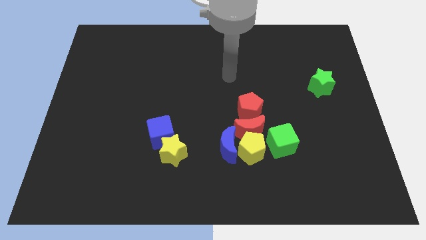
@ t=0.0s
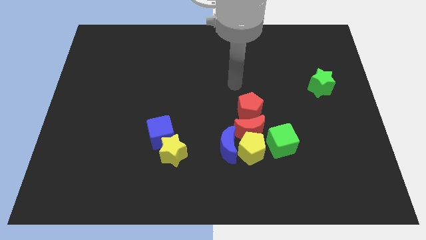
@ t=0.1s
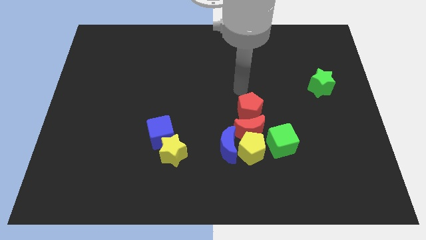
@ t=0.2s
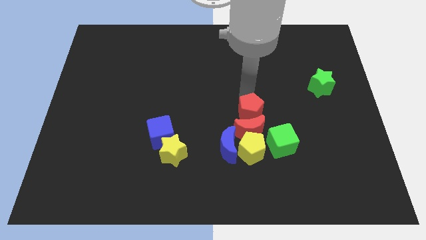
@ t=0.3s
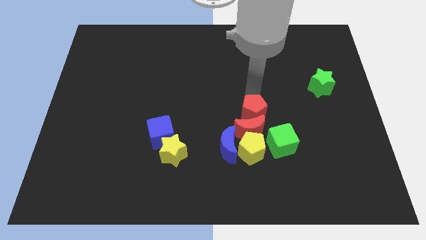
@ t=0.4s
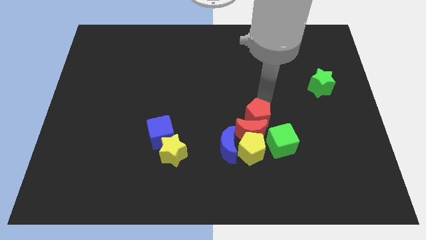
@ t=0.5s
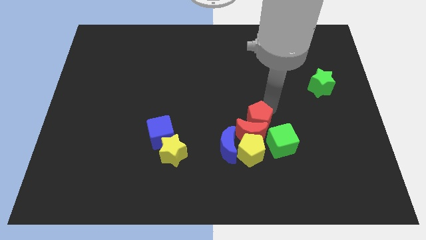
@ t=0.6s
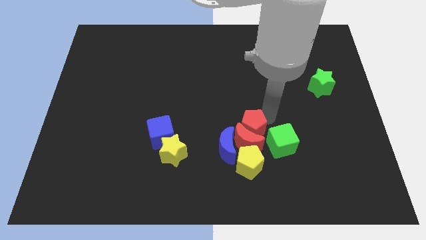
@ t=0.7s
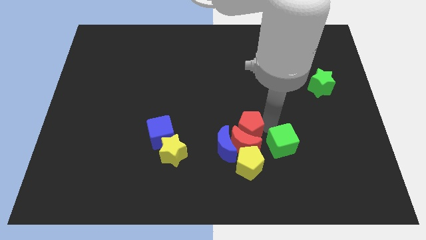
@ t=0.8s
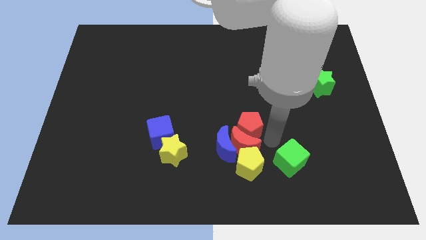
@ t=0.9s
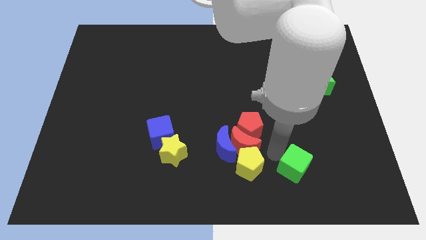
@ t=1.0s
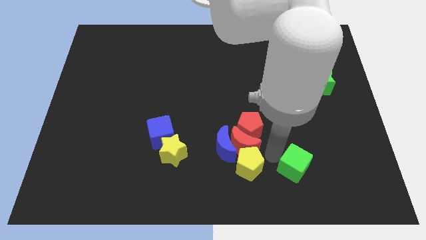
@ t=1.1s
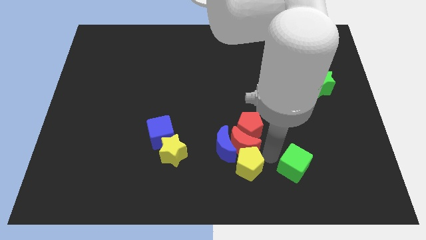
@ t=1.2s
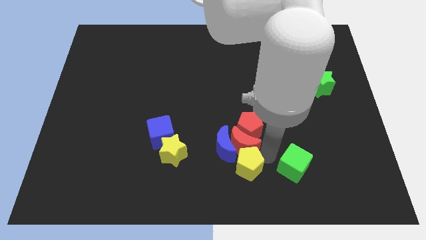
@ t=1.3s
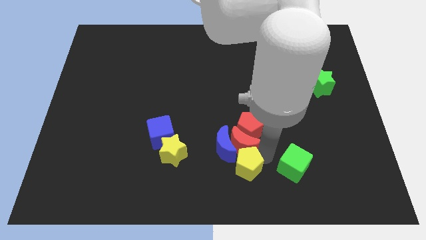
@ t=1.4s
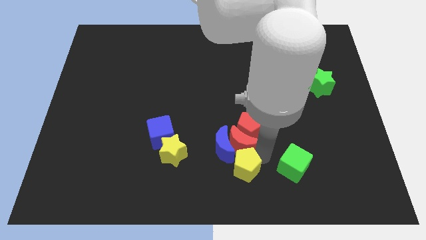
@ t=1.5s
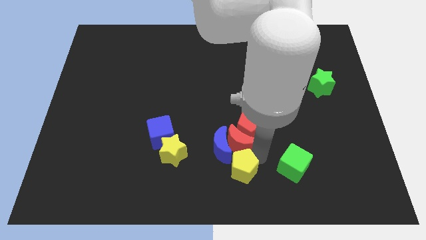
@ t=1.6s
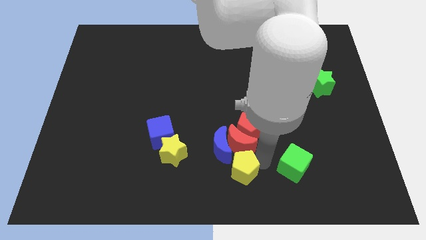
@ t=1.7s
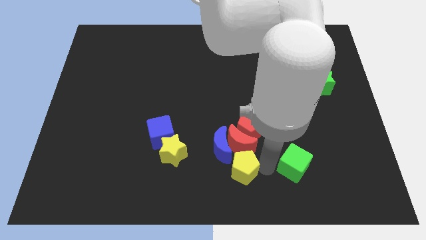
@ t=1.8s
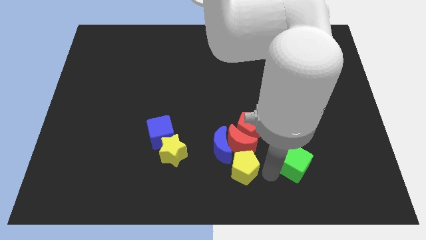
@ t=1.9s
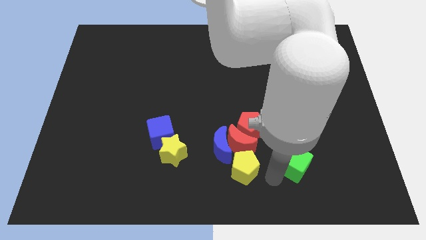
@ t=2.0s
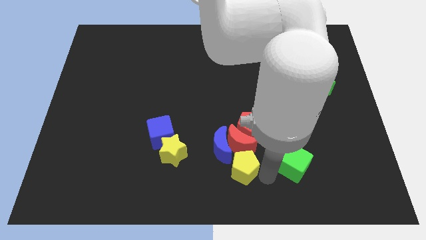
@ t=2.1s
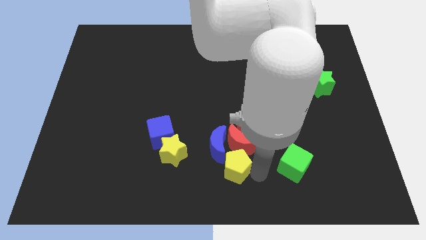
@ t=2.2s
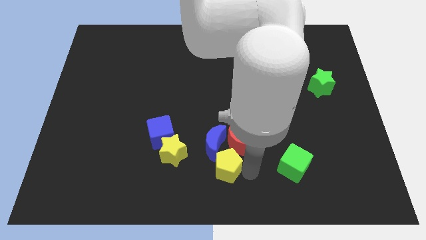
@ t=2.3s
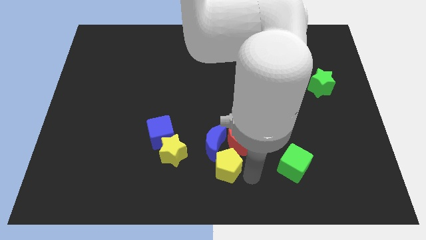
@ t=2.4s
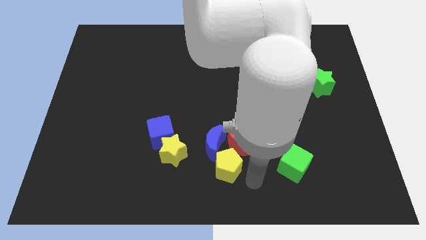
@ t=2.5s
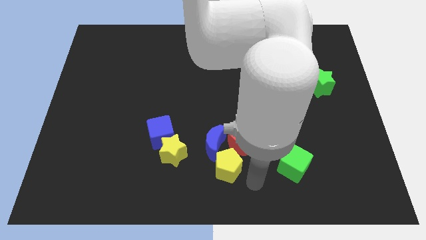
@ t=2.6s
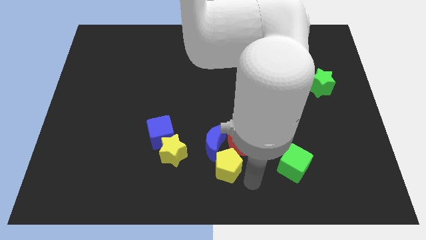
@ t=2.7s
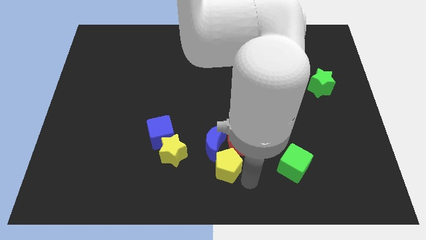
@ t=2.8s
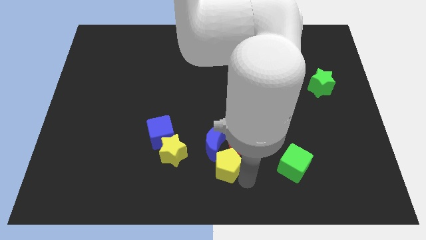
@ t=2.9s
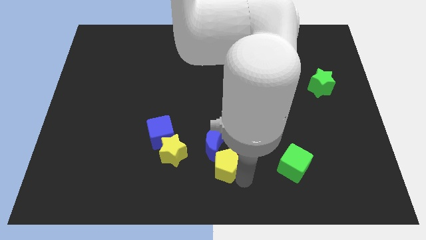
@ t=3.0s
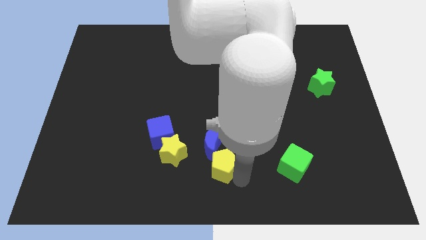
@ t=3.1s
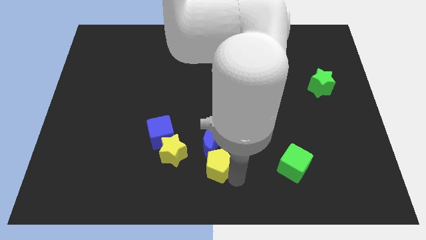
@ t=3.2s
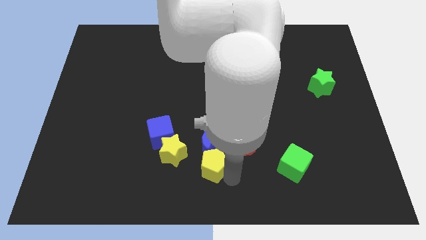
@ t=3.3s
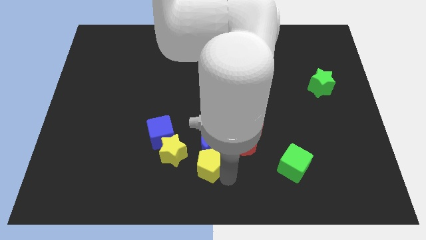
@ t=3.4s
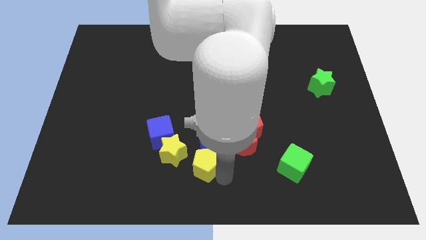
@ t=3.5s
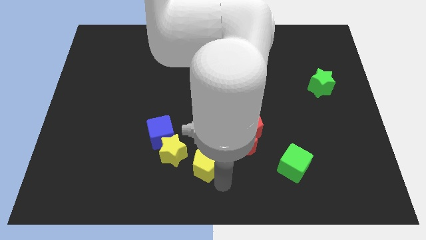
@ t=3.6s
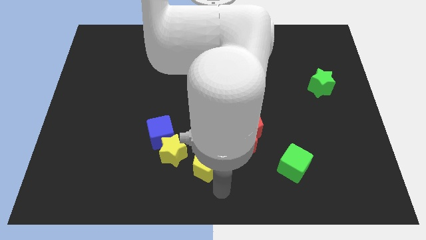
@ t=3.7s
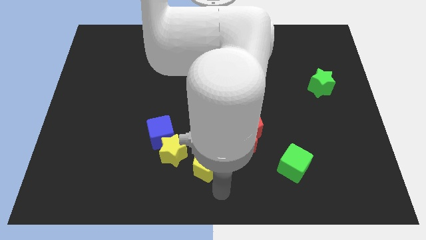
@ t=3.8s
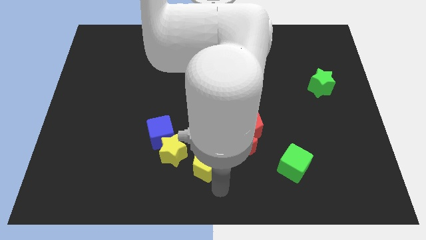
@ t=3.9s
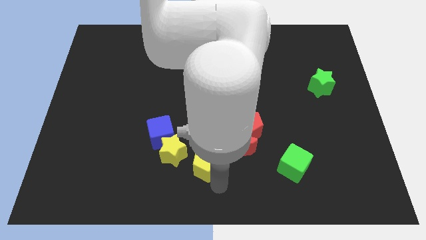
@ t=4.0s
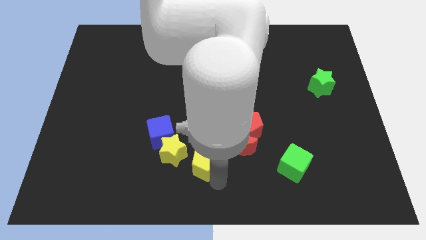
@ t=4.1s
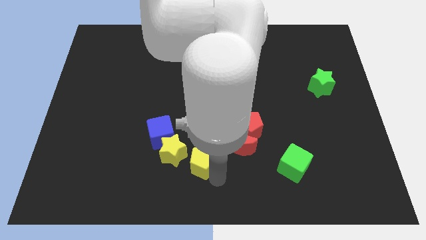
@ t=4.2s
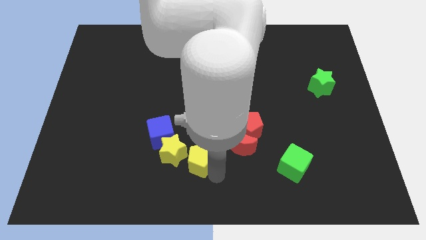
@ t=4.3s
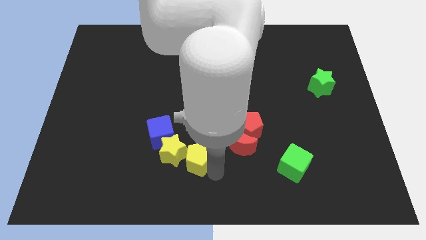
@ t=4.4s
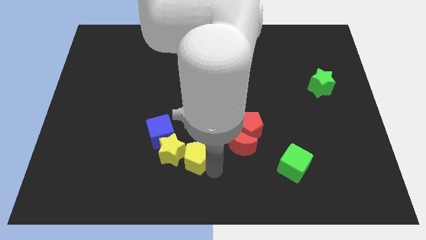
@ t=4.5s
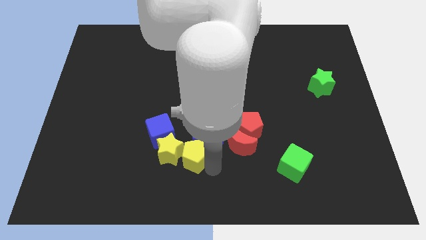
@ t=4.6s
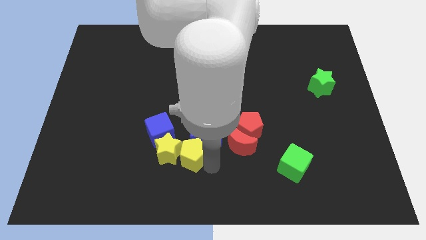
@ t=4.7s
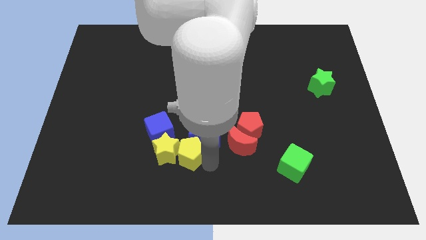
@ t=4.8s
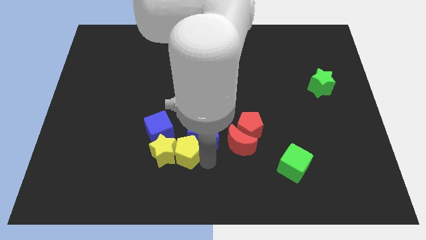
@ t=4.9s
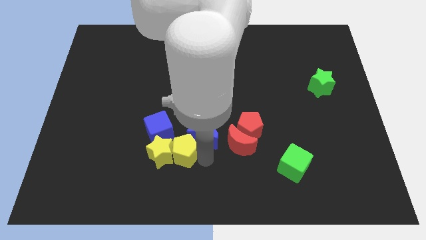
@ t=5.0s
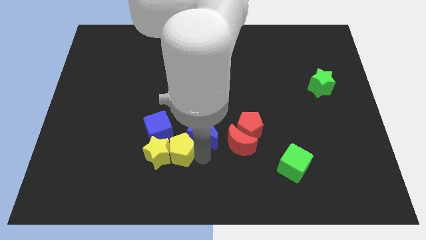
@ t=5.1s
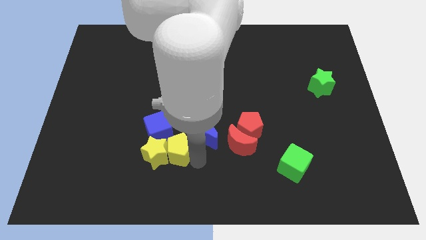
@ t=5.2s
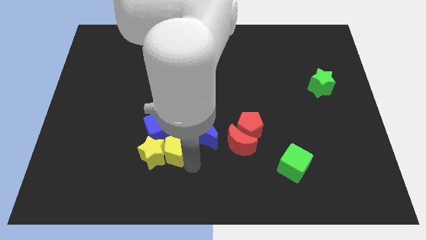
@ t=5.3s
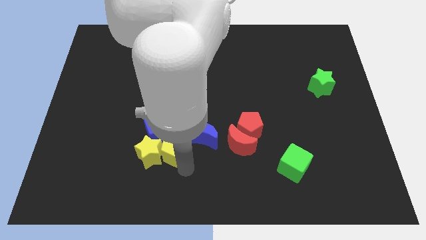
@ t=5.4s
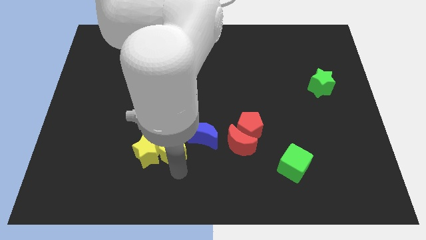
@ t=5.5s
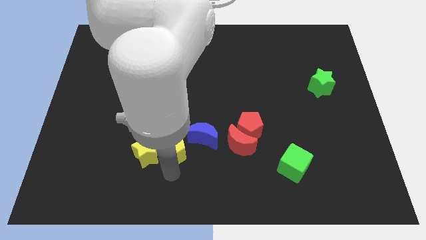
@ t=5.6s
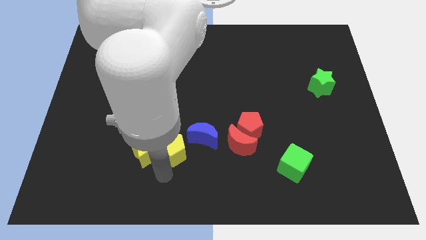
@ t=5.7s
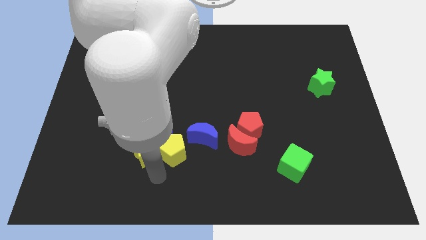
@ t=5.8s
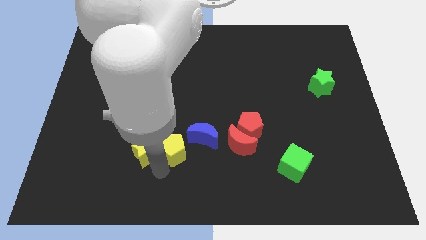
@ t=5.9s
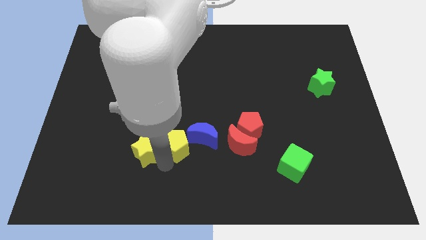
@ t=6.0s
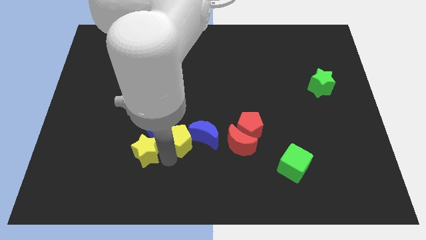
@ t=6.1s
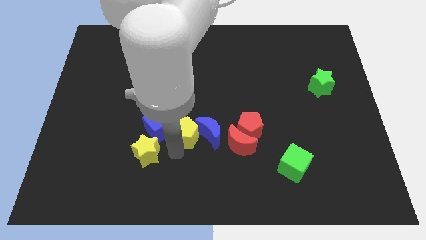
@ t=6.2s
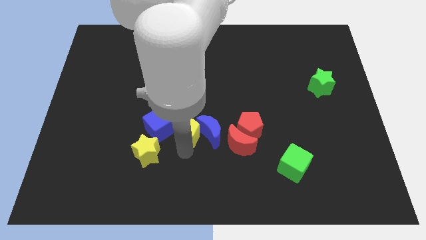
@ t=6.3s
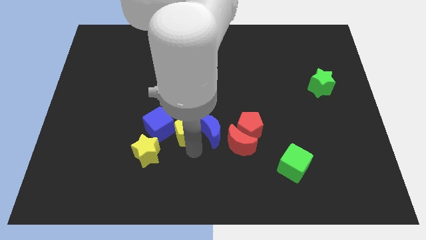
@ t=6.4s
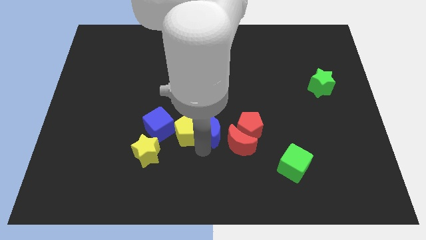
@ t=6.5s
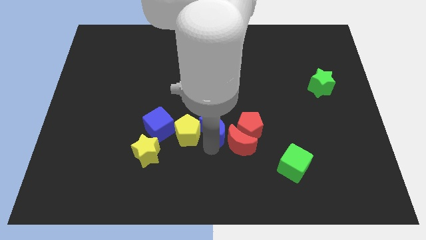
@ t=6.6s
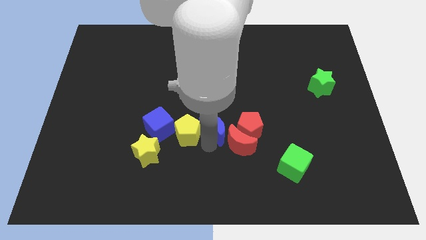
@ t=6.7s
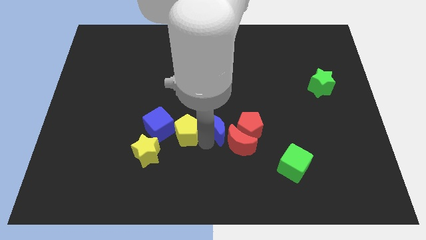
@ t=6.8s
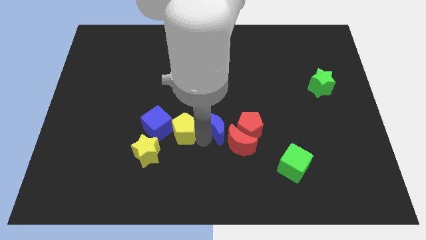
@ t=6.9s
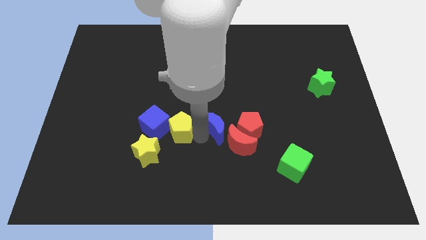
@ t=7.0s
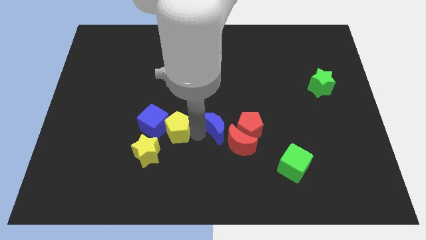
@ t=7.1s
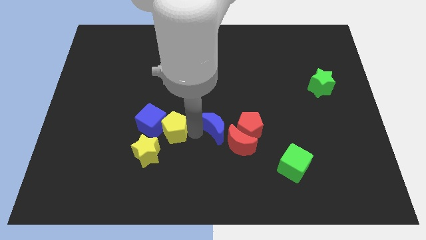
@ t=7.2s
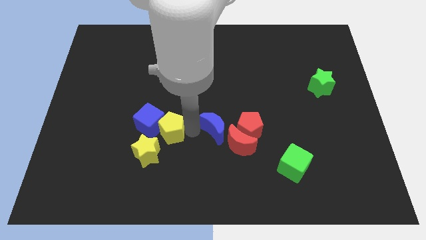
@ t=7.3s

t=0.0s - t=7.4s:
push the yellow pentagon to the top side of the yellow star

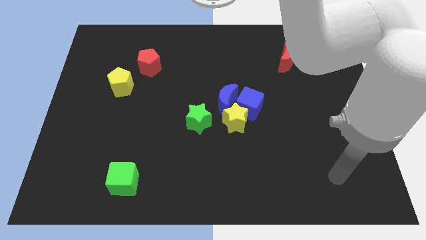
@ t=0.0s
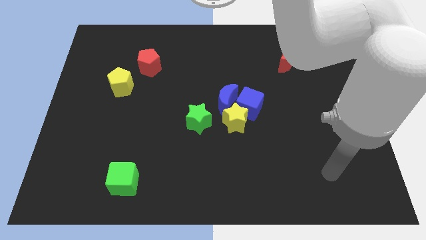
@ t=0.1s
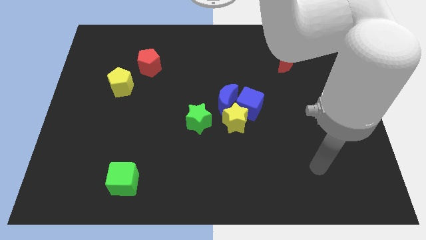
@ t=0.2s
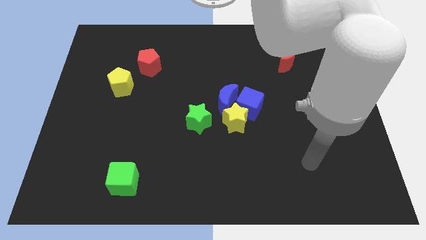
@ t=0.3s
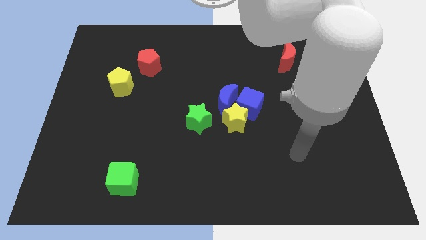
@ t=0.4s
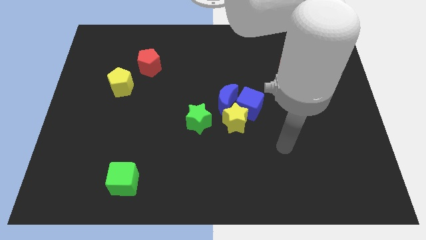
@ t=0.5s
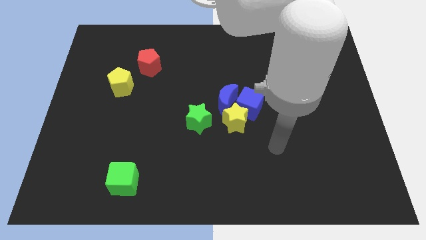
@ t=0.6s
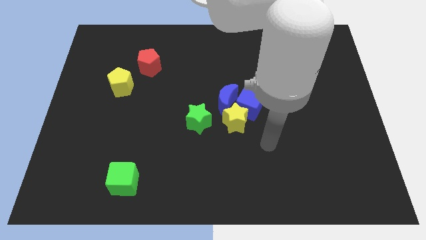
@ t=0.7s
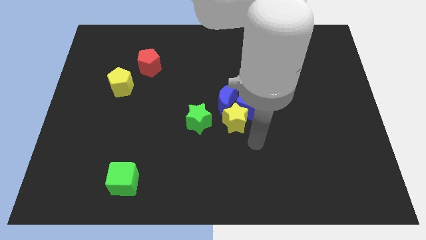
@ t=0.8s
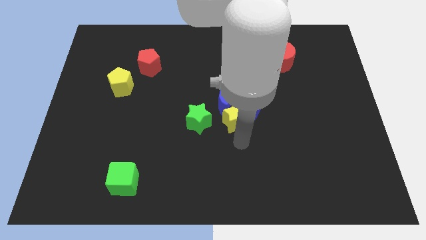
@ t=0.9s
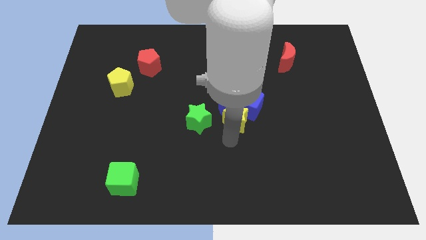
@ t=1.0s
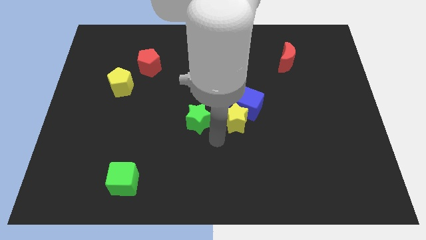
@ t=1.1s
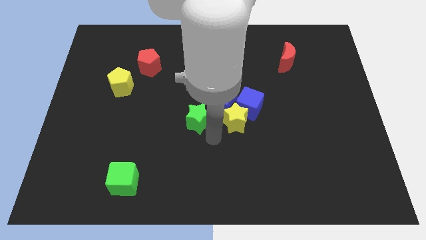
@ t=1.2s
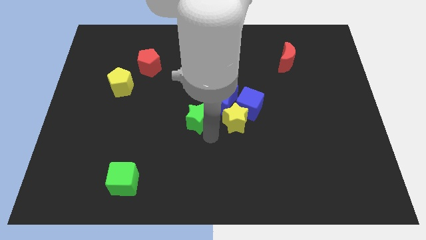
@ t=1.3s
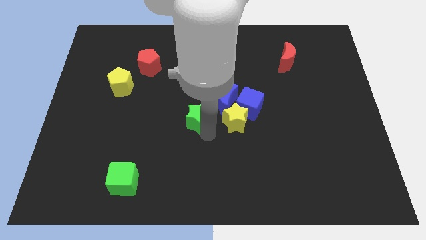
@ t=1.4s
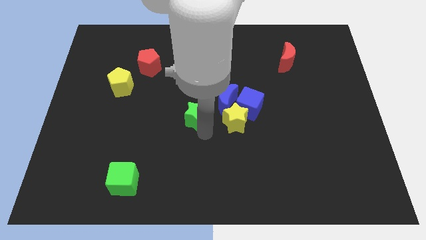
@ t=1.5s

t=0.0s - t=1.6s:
move the green star to the left side of the blue moon
